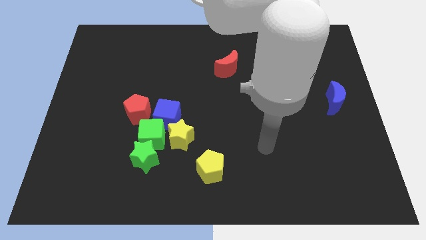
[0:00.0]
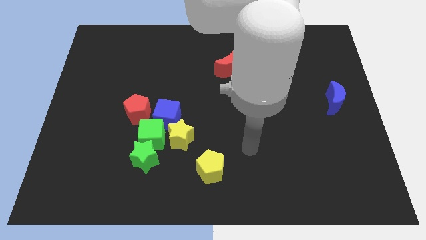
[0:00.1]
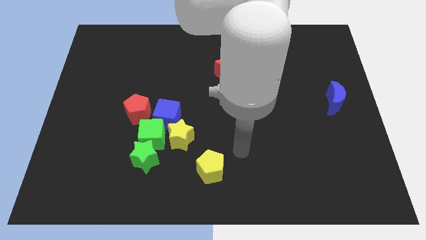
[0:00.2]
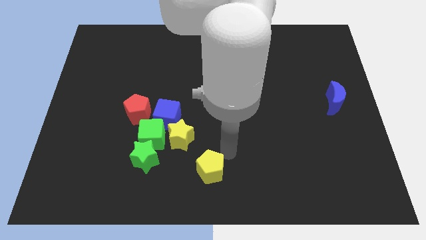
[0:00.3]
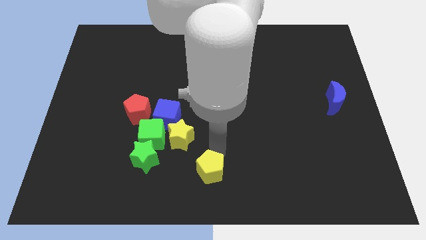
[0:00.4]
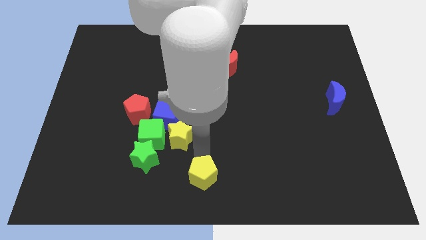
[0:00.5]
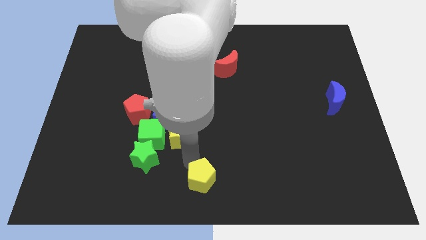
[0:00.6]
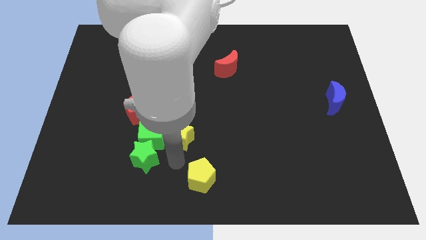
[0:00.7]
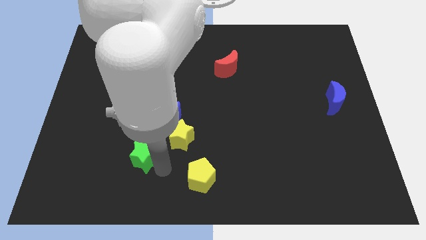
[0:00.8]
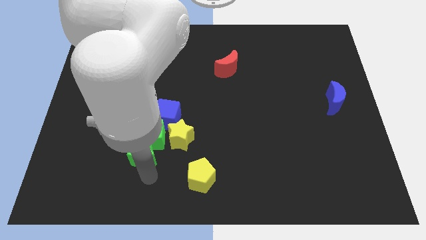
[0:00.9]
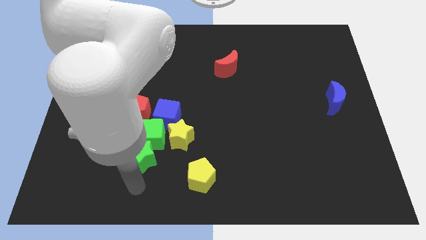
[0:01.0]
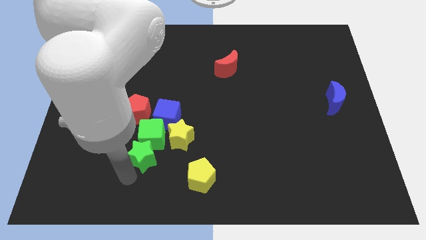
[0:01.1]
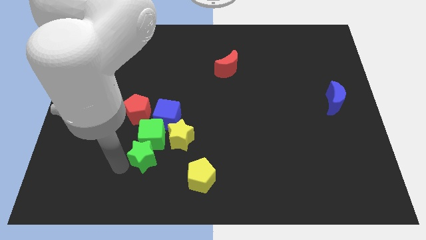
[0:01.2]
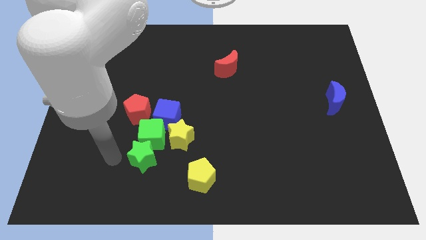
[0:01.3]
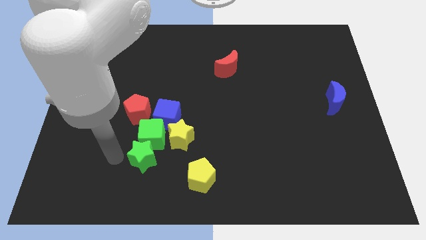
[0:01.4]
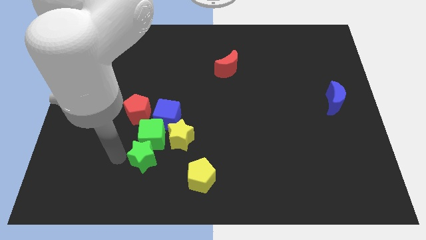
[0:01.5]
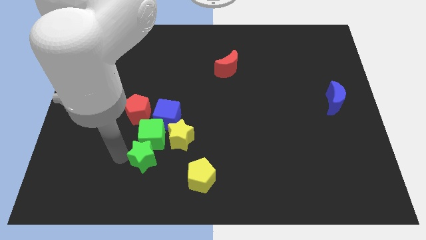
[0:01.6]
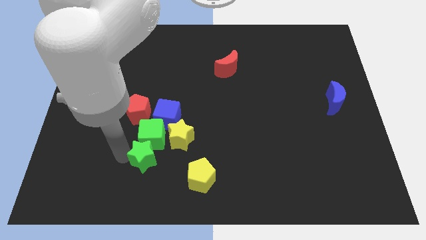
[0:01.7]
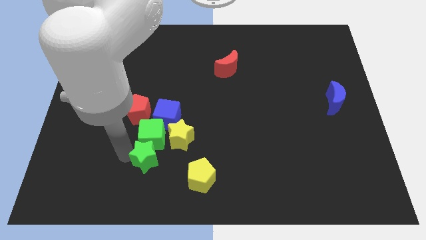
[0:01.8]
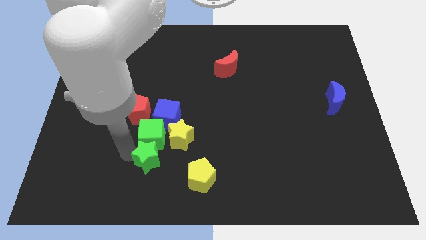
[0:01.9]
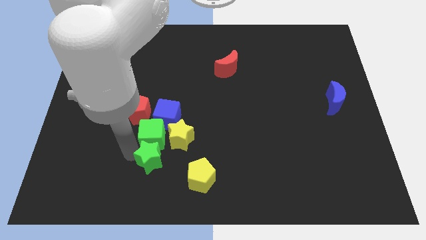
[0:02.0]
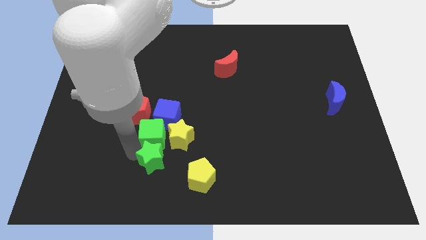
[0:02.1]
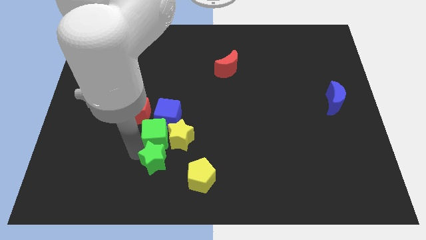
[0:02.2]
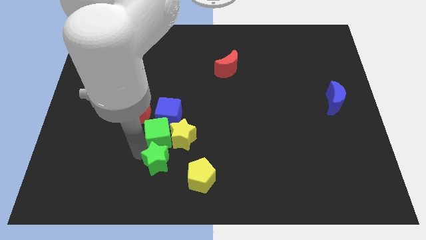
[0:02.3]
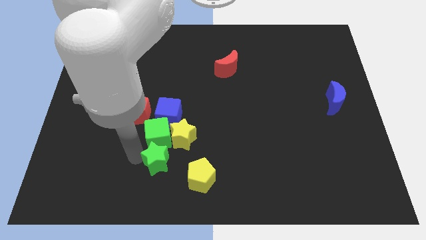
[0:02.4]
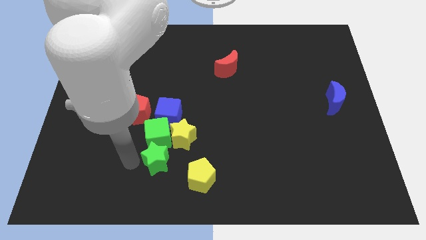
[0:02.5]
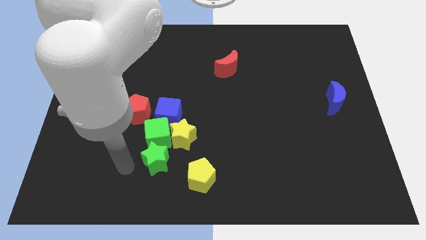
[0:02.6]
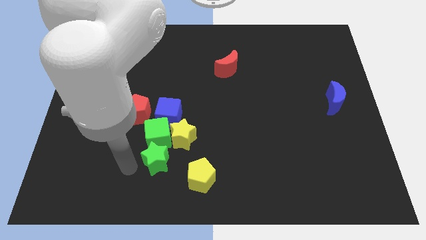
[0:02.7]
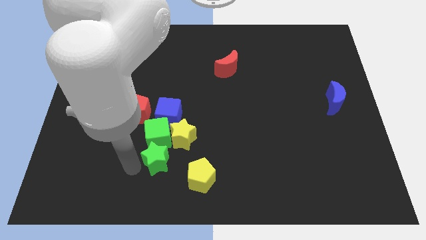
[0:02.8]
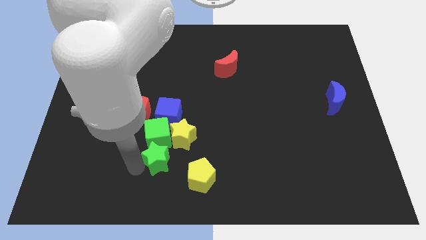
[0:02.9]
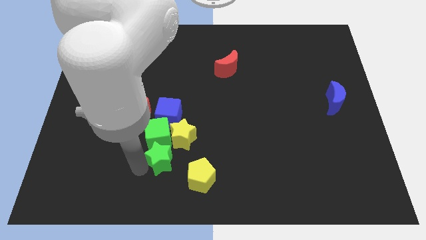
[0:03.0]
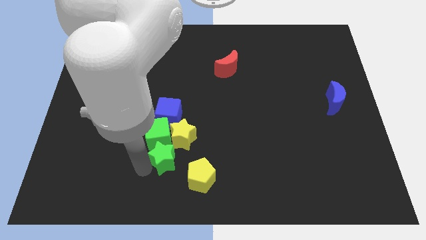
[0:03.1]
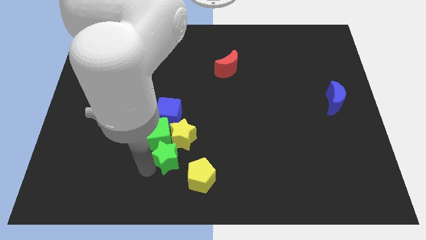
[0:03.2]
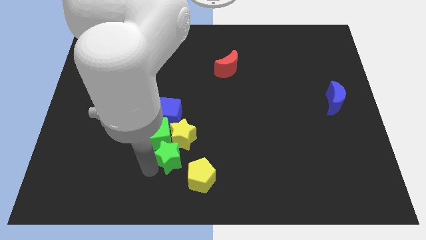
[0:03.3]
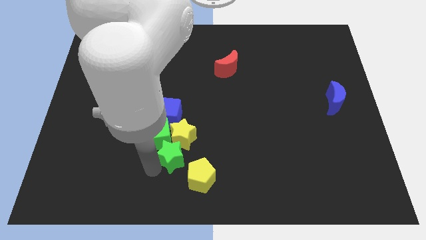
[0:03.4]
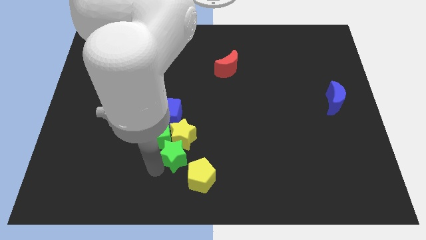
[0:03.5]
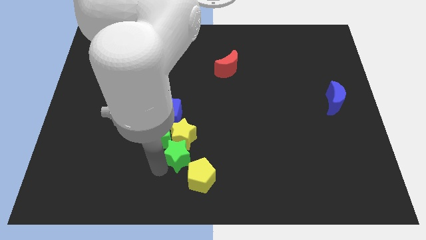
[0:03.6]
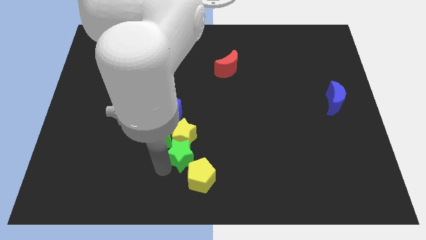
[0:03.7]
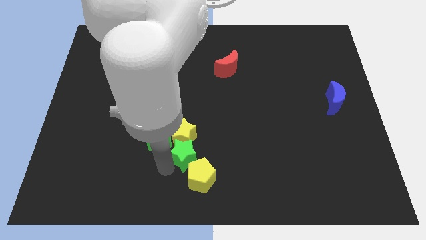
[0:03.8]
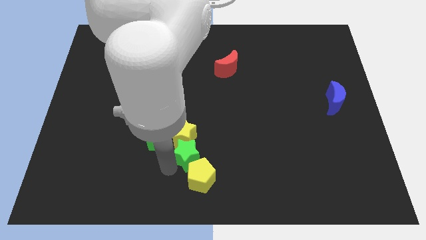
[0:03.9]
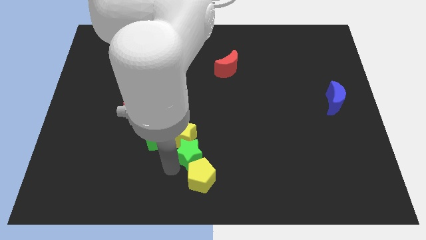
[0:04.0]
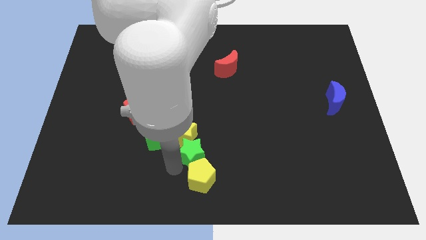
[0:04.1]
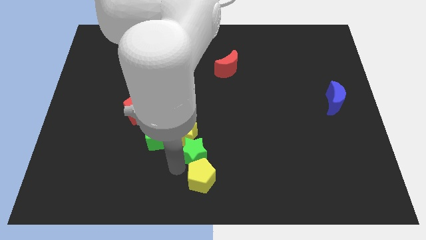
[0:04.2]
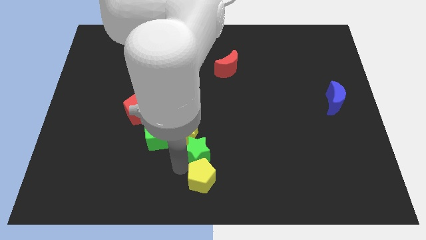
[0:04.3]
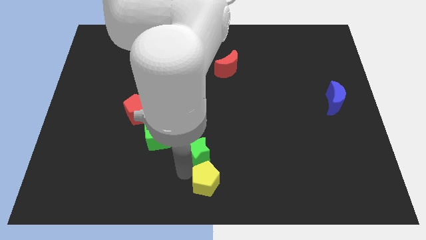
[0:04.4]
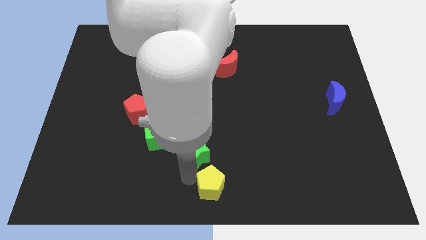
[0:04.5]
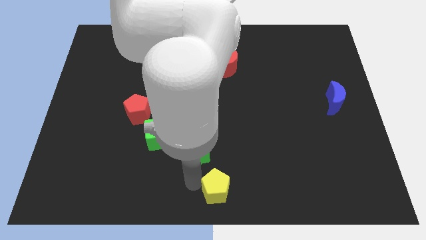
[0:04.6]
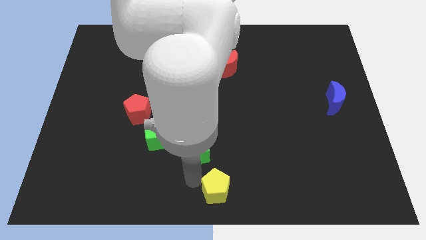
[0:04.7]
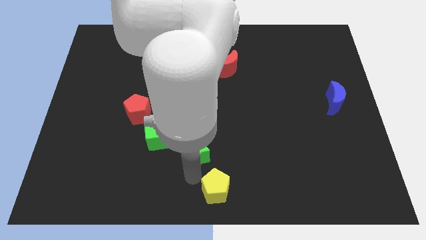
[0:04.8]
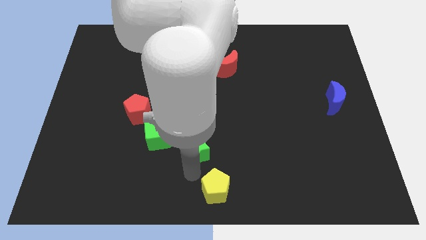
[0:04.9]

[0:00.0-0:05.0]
slightly slide the green star diagonally up and right

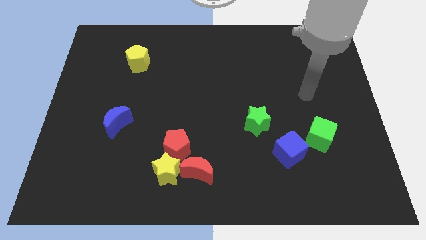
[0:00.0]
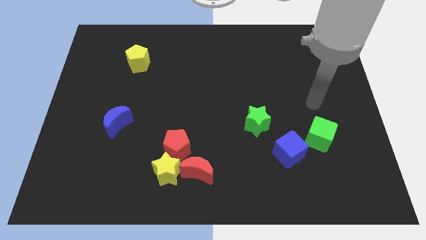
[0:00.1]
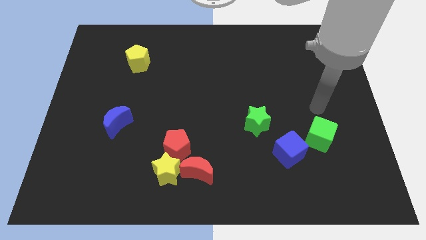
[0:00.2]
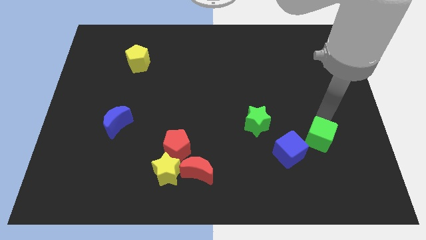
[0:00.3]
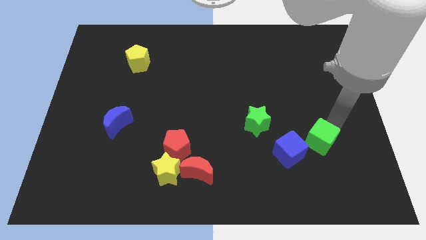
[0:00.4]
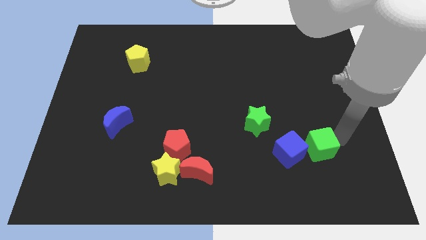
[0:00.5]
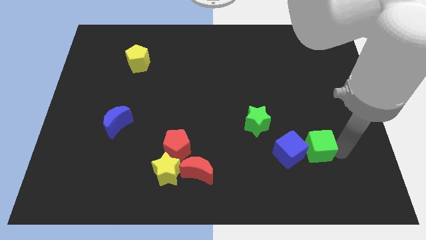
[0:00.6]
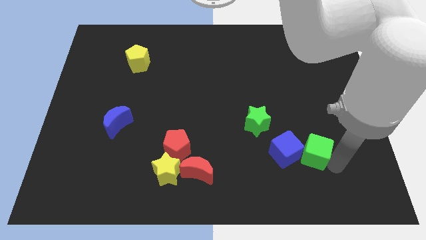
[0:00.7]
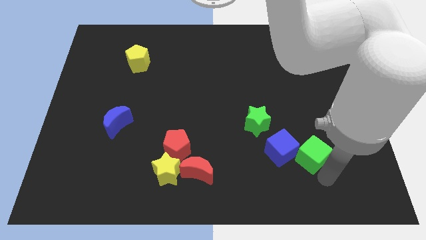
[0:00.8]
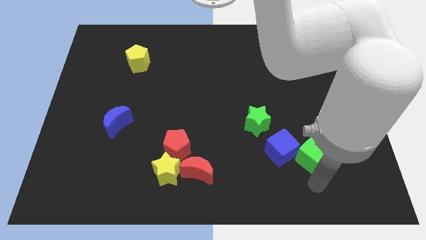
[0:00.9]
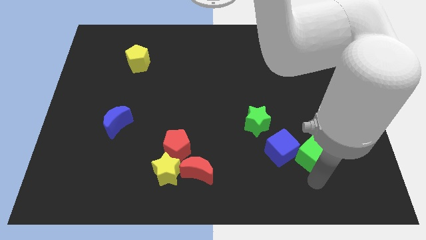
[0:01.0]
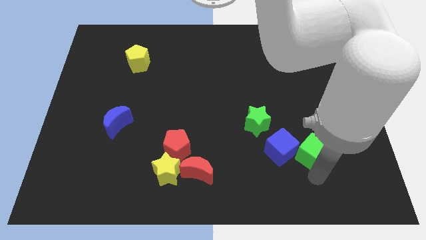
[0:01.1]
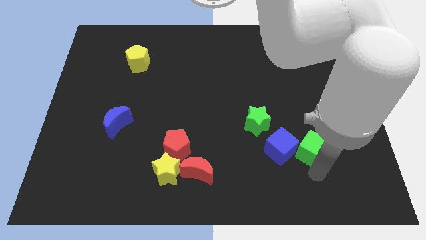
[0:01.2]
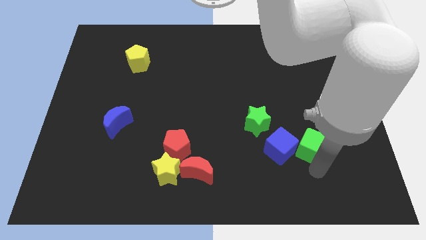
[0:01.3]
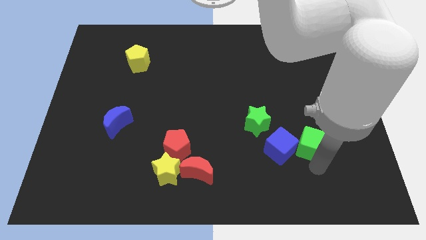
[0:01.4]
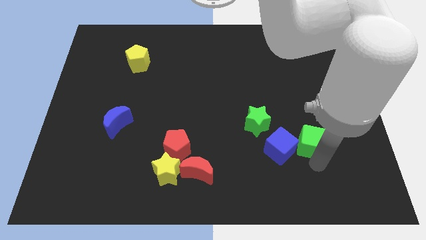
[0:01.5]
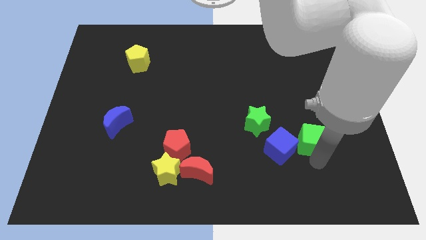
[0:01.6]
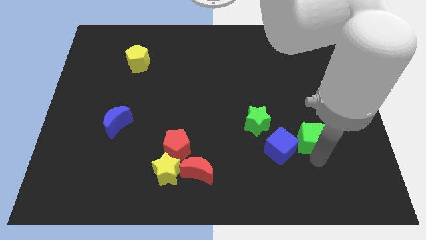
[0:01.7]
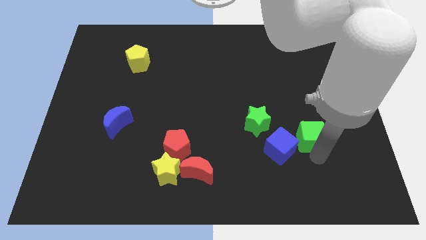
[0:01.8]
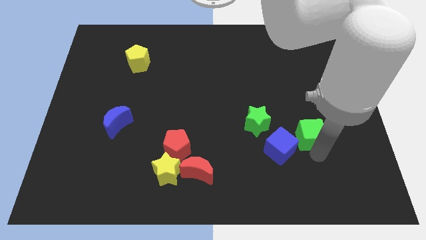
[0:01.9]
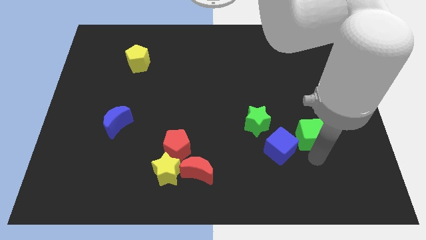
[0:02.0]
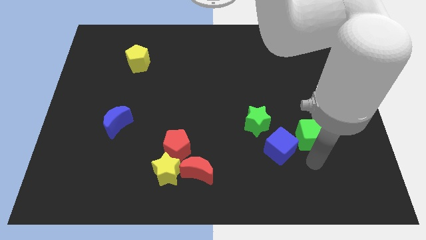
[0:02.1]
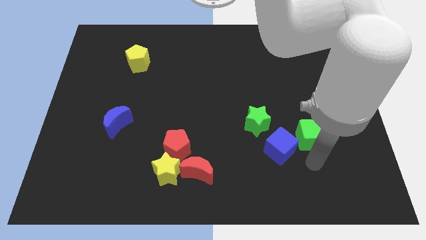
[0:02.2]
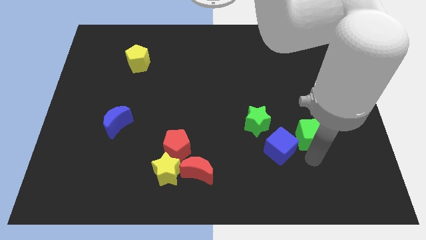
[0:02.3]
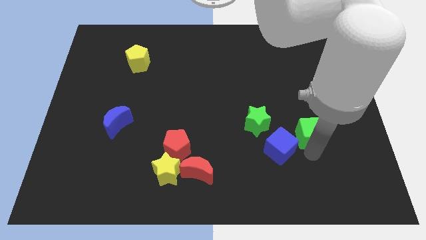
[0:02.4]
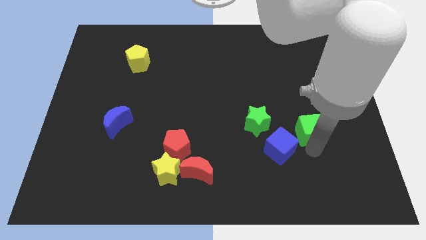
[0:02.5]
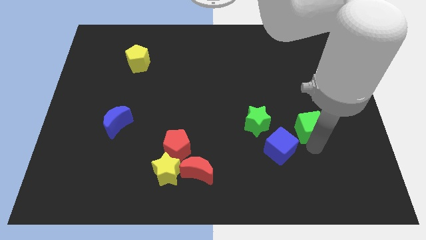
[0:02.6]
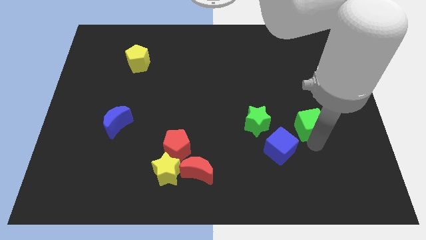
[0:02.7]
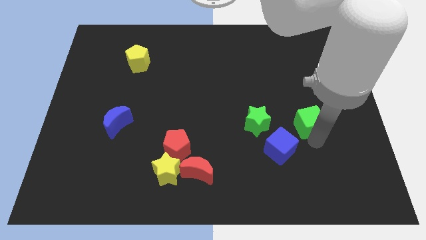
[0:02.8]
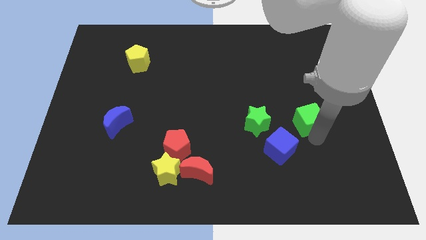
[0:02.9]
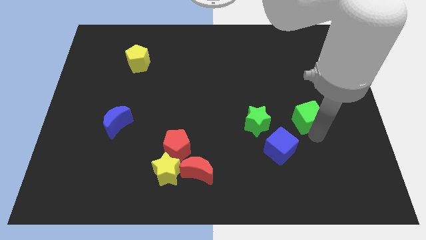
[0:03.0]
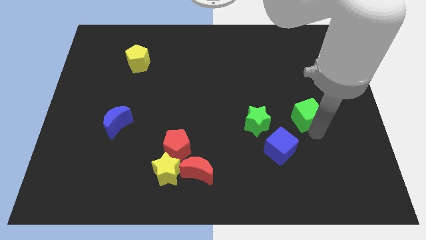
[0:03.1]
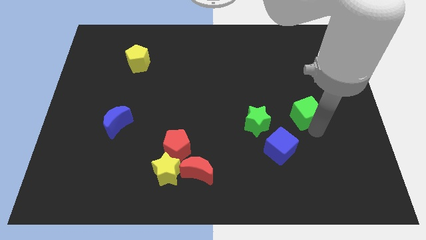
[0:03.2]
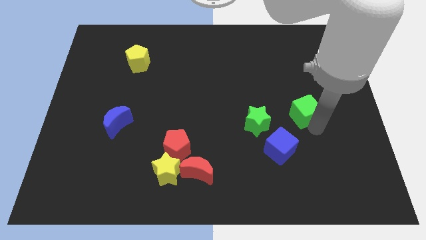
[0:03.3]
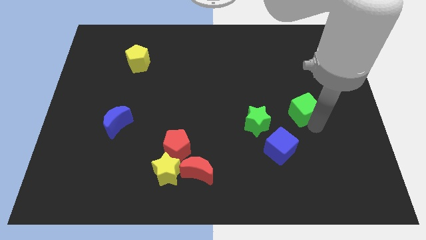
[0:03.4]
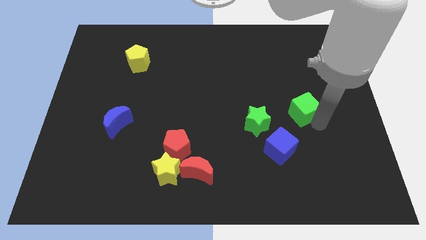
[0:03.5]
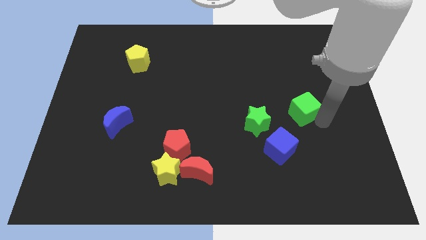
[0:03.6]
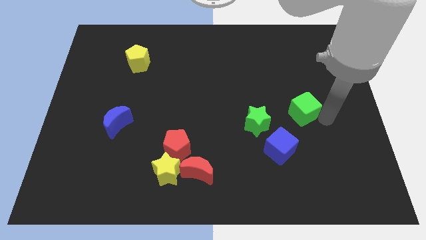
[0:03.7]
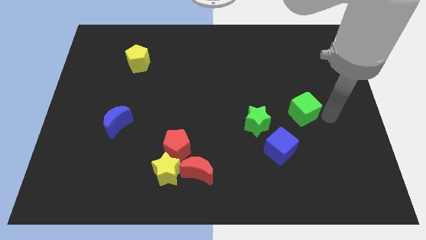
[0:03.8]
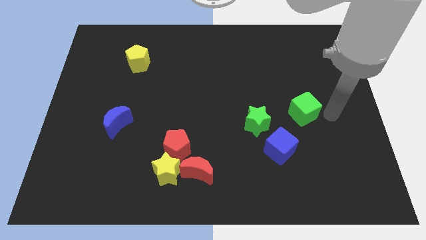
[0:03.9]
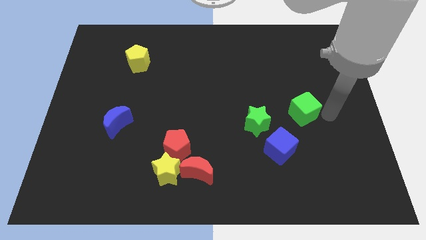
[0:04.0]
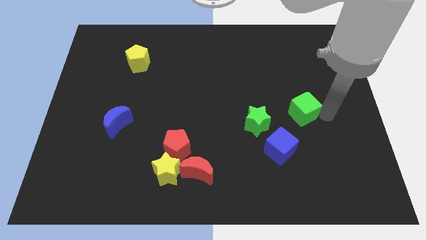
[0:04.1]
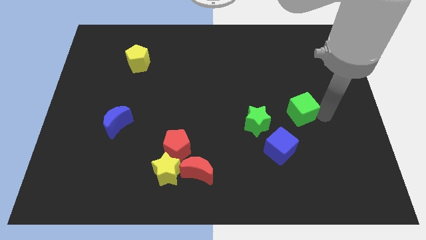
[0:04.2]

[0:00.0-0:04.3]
slightly push the green cube up and left diagonally
